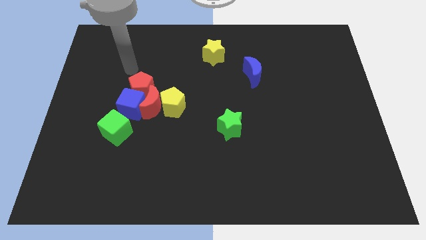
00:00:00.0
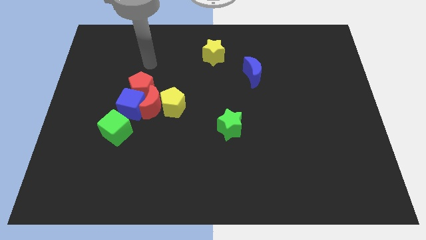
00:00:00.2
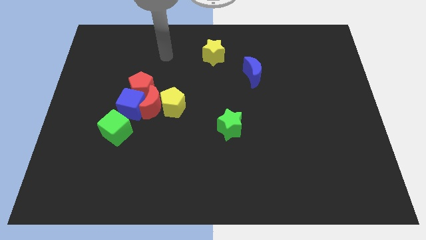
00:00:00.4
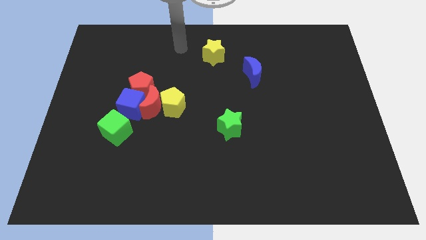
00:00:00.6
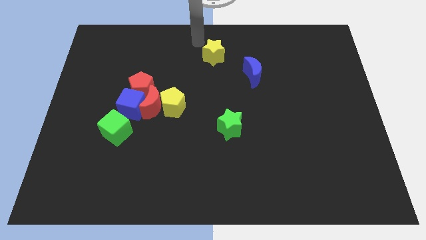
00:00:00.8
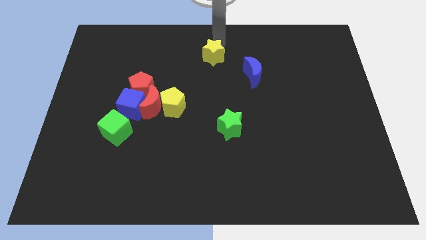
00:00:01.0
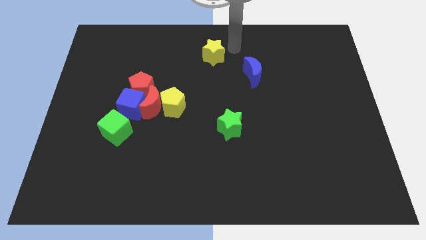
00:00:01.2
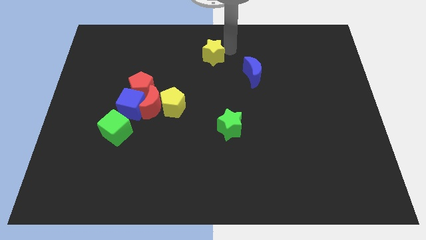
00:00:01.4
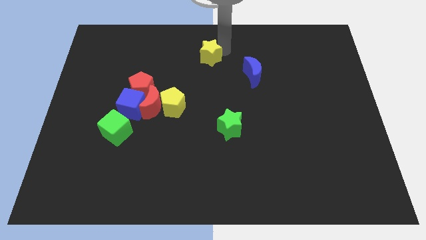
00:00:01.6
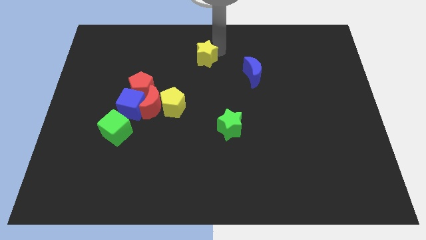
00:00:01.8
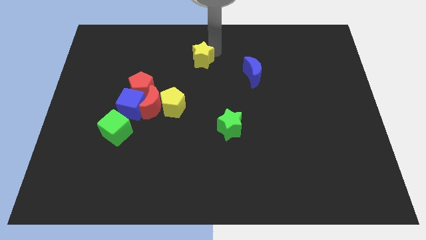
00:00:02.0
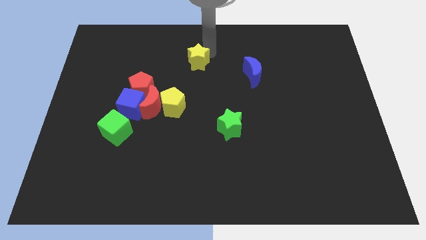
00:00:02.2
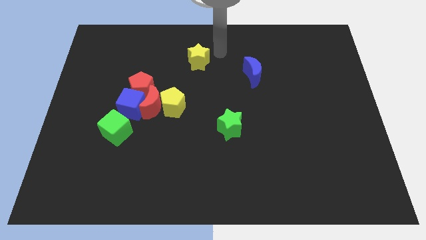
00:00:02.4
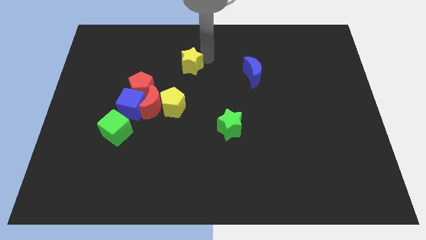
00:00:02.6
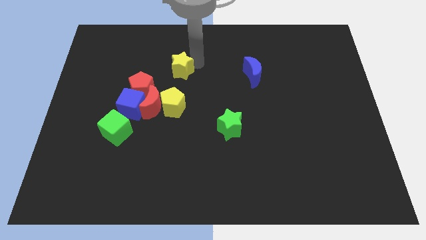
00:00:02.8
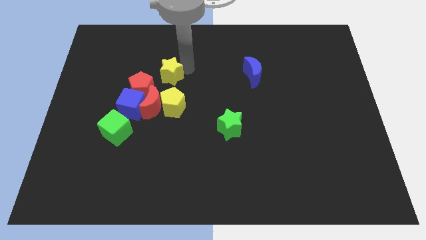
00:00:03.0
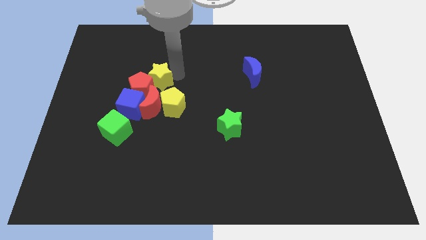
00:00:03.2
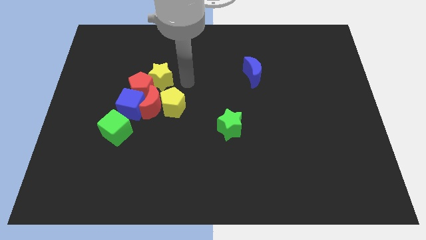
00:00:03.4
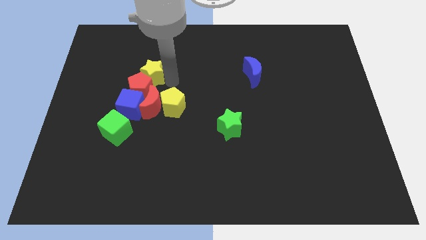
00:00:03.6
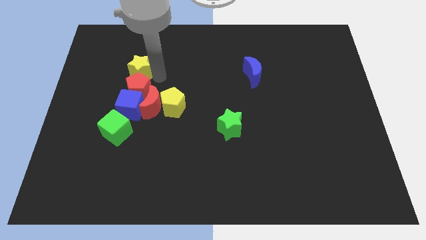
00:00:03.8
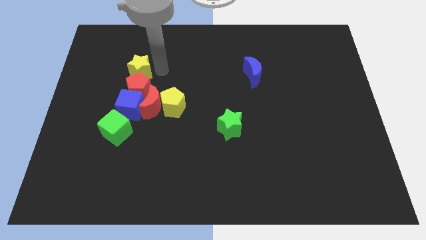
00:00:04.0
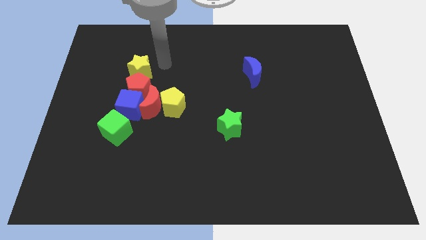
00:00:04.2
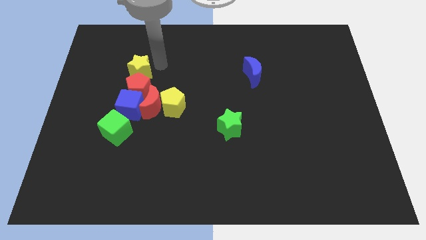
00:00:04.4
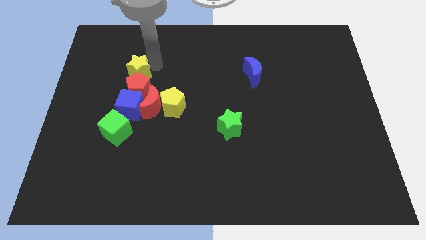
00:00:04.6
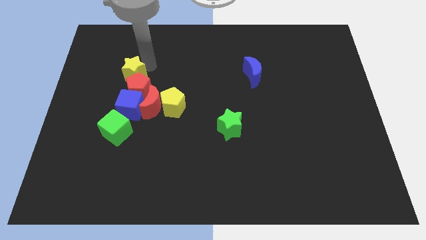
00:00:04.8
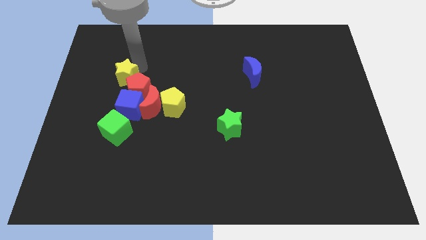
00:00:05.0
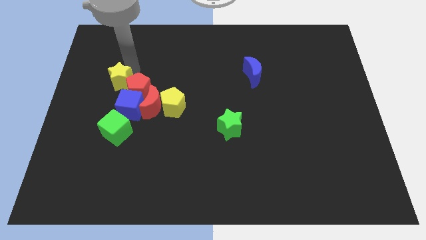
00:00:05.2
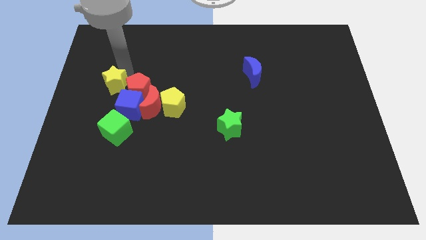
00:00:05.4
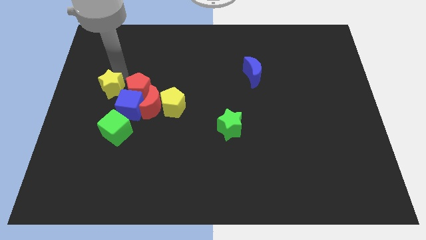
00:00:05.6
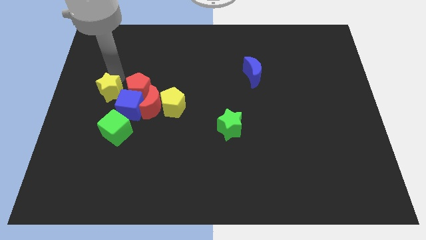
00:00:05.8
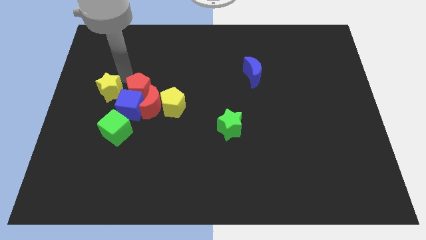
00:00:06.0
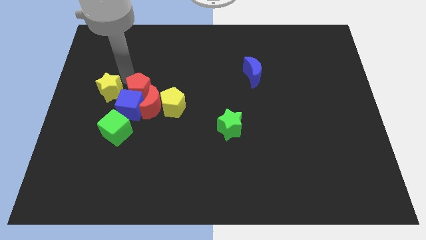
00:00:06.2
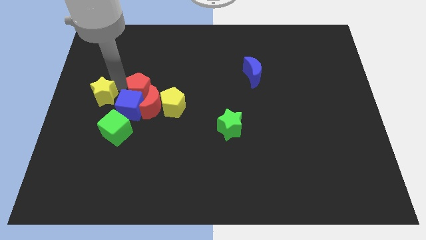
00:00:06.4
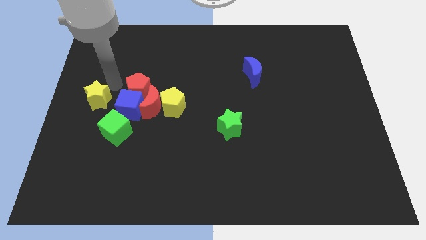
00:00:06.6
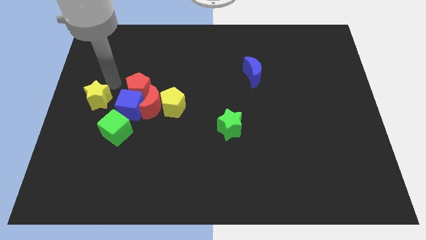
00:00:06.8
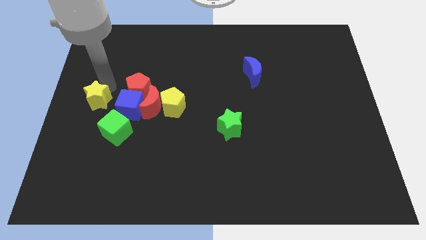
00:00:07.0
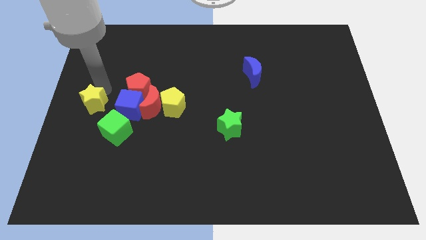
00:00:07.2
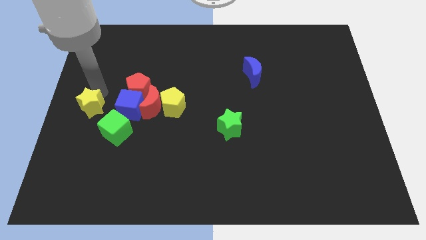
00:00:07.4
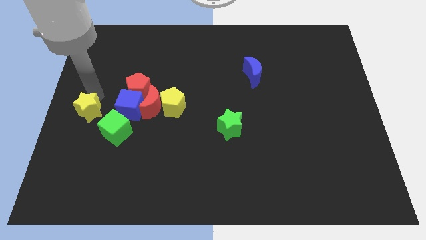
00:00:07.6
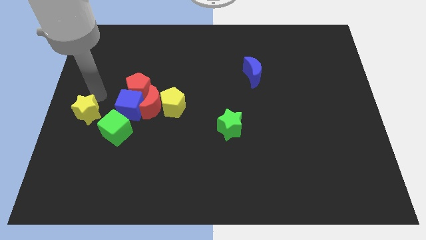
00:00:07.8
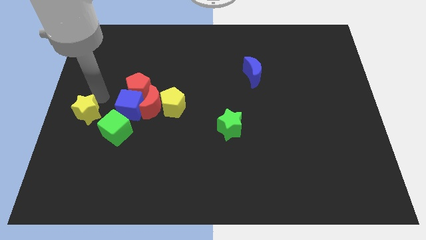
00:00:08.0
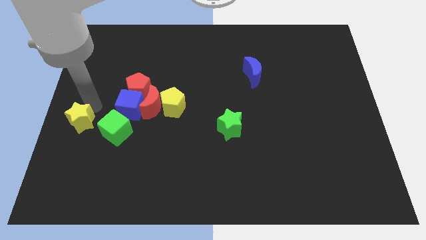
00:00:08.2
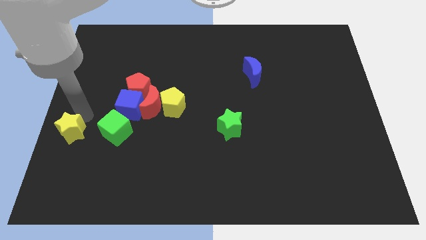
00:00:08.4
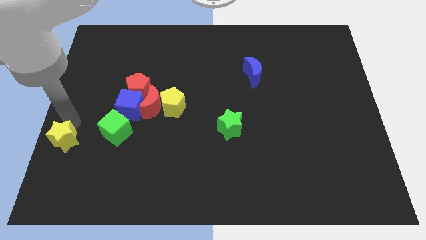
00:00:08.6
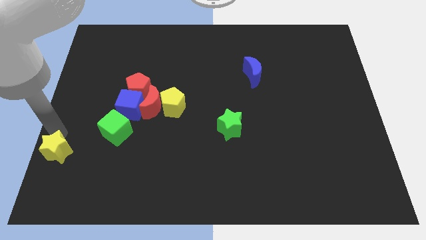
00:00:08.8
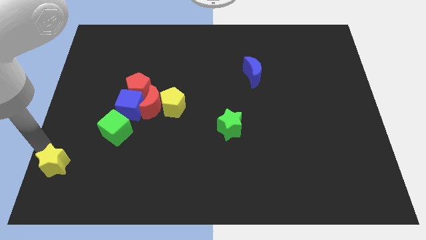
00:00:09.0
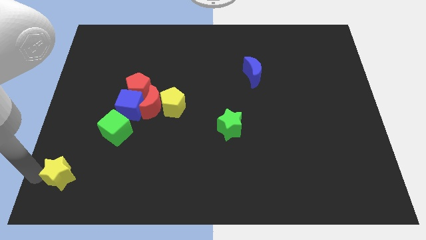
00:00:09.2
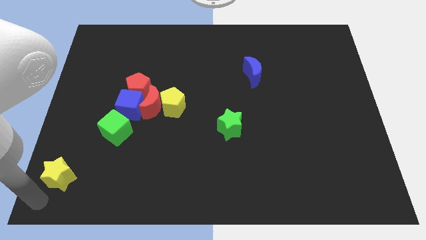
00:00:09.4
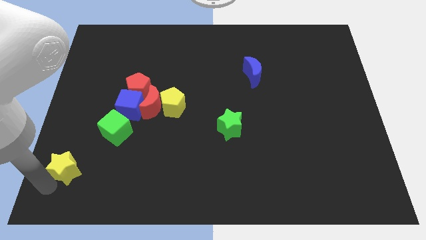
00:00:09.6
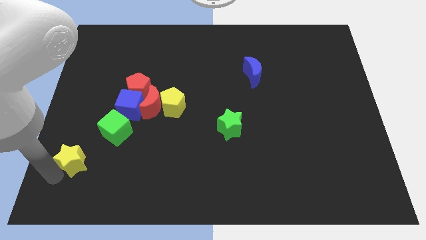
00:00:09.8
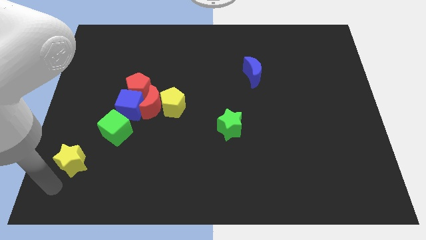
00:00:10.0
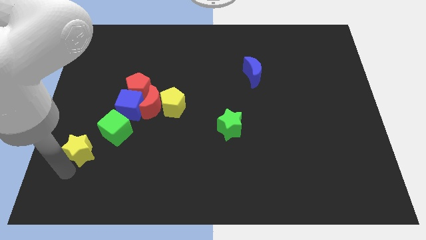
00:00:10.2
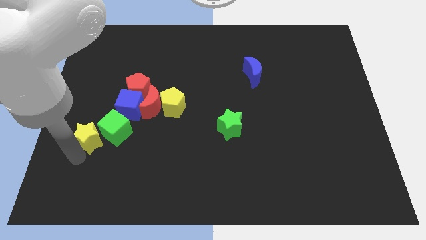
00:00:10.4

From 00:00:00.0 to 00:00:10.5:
put the yellow star to the bottom left of the blue cube

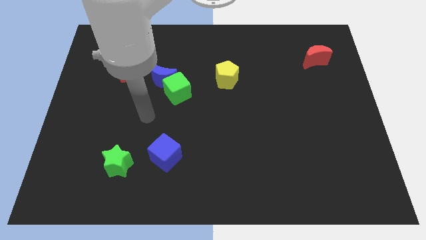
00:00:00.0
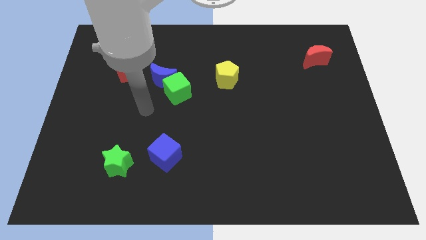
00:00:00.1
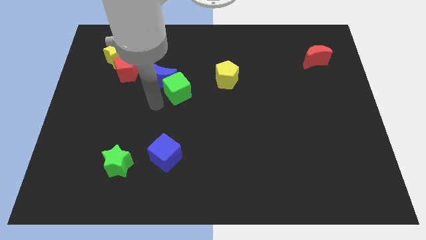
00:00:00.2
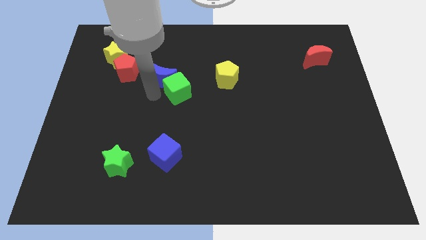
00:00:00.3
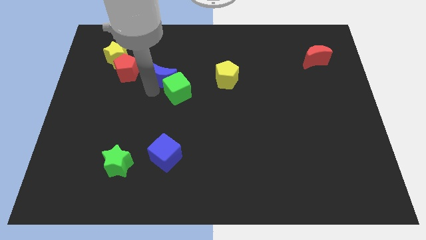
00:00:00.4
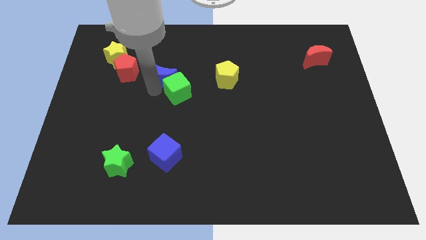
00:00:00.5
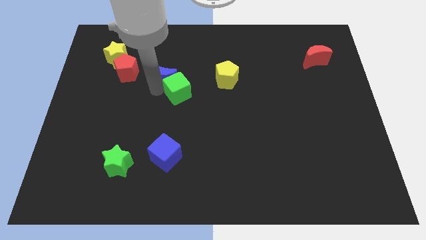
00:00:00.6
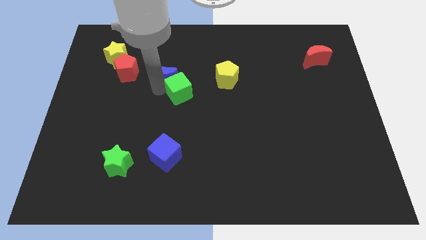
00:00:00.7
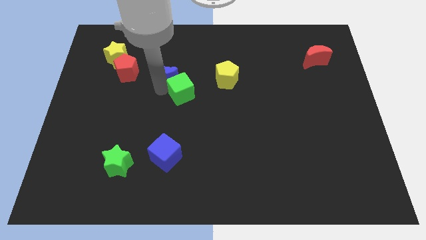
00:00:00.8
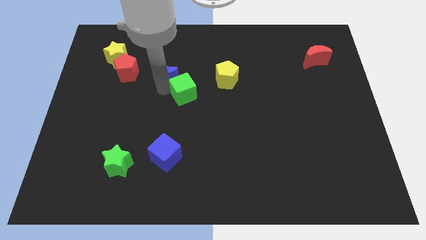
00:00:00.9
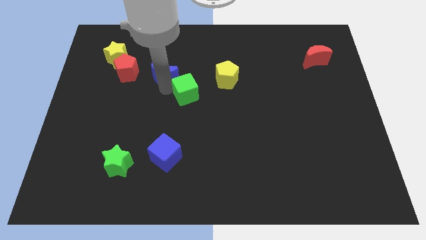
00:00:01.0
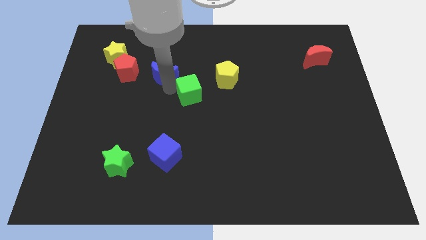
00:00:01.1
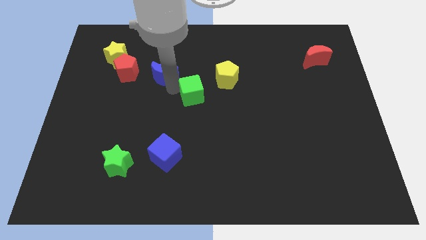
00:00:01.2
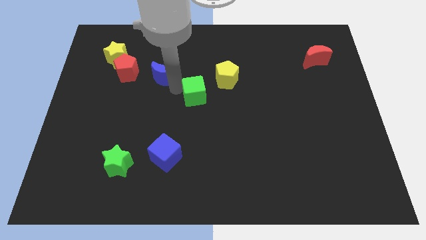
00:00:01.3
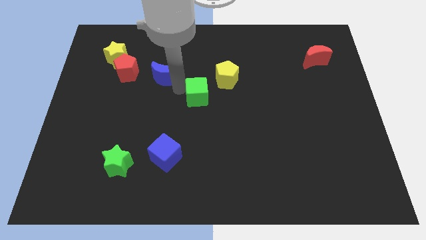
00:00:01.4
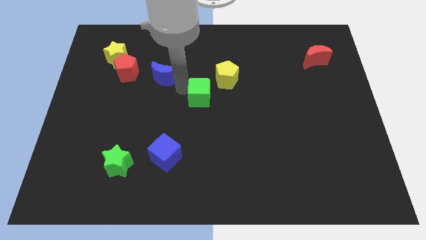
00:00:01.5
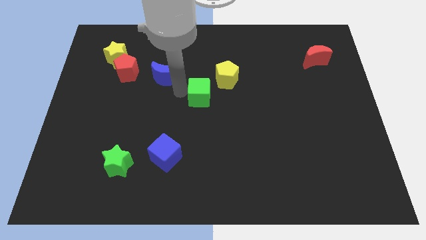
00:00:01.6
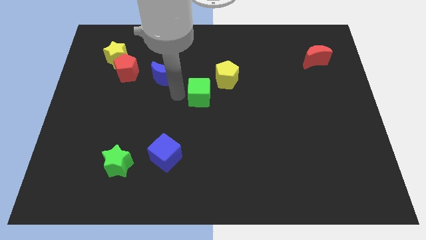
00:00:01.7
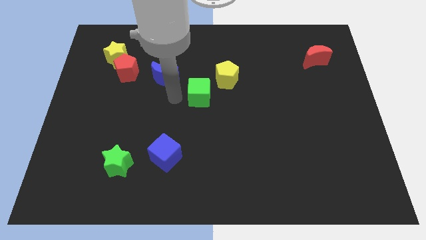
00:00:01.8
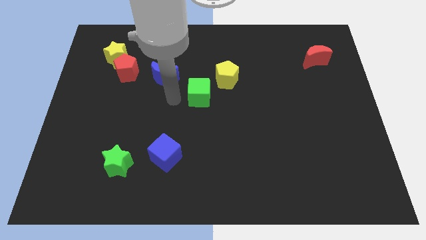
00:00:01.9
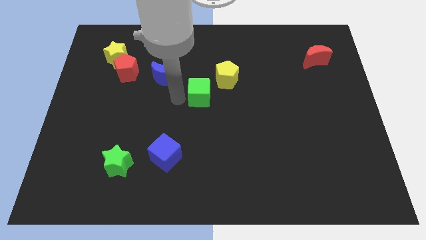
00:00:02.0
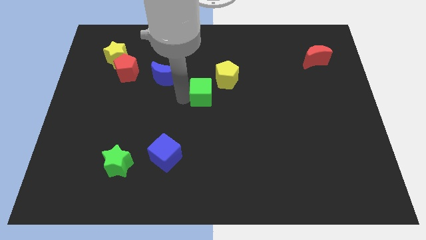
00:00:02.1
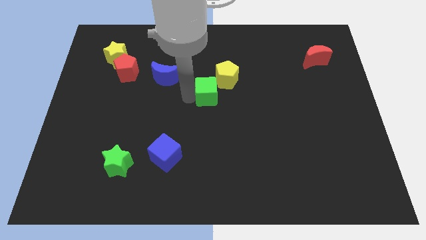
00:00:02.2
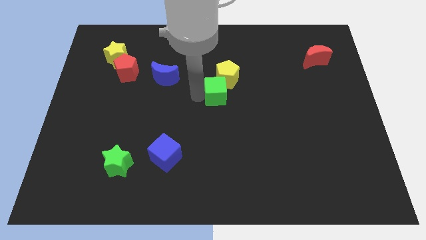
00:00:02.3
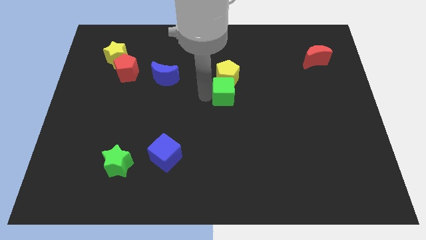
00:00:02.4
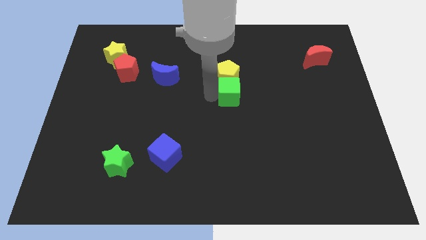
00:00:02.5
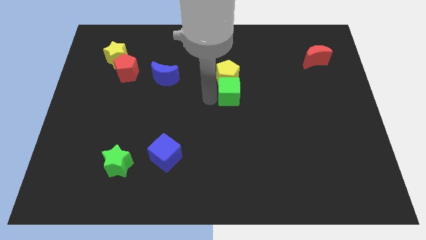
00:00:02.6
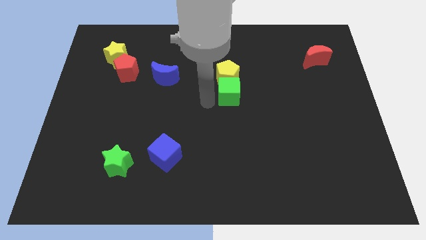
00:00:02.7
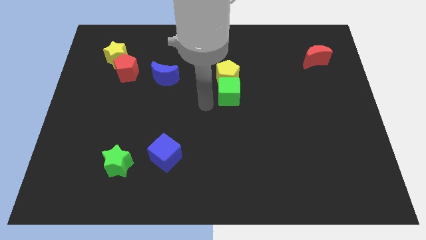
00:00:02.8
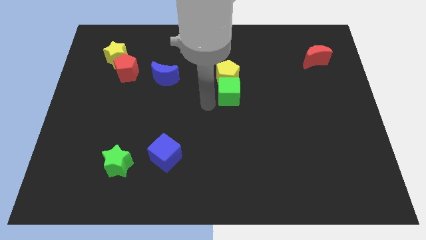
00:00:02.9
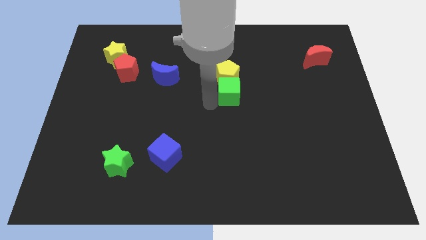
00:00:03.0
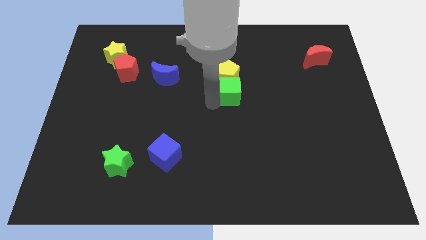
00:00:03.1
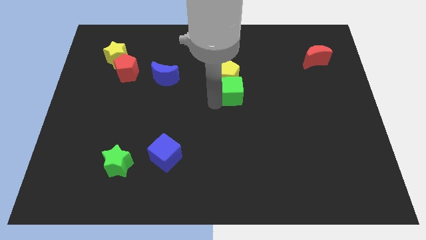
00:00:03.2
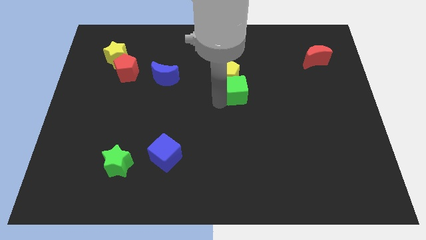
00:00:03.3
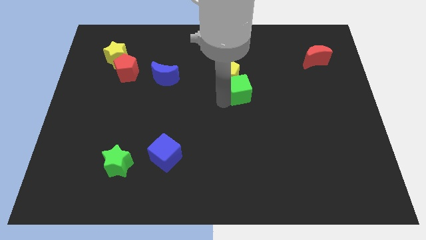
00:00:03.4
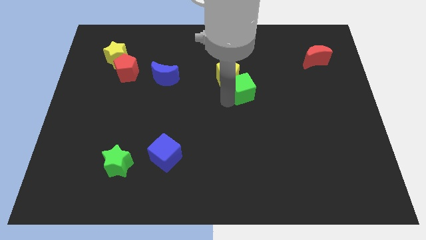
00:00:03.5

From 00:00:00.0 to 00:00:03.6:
put the green cube to the right side of the yellow pentagon
